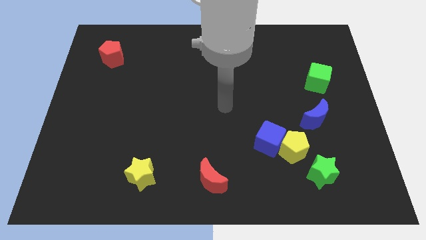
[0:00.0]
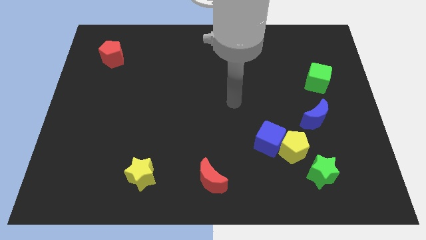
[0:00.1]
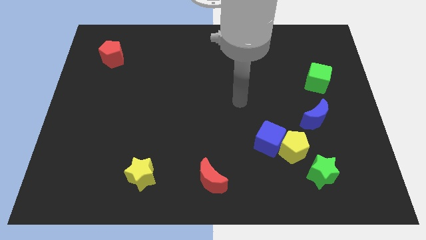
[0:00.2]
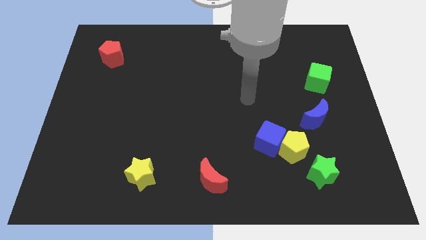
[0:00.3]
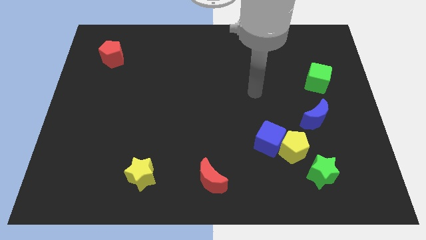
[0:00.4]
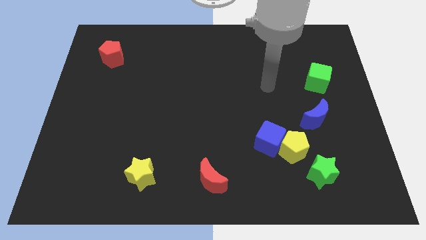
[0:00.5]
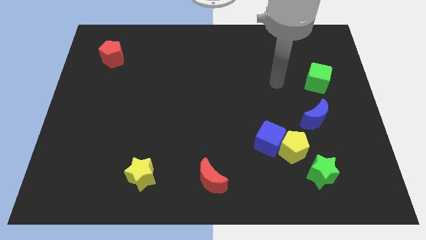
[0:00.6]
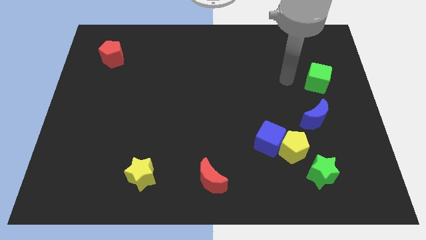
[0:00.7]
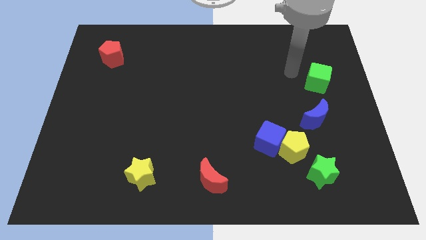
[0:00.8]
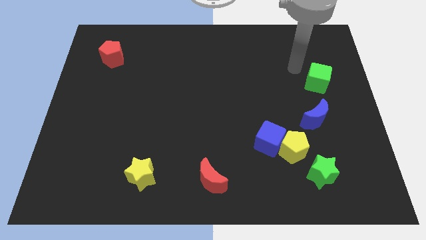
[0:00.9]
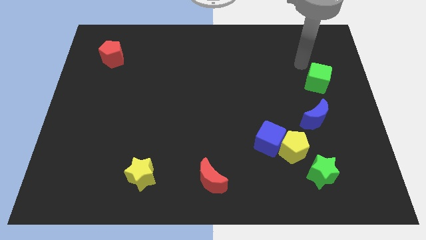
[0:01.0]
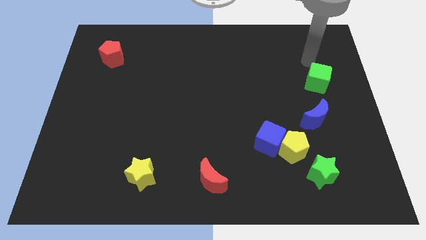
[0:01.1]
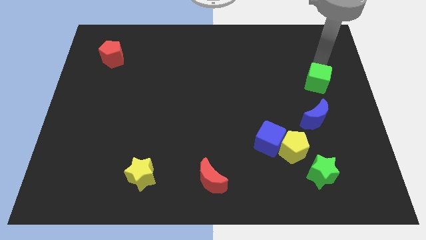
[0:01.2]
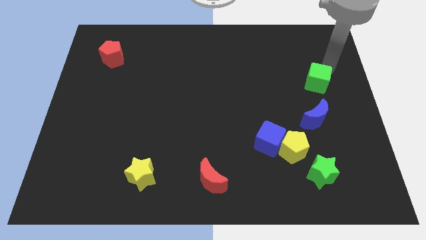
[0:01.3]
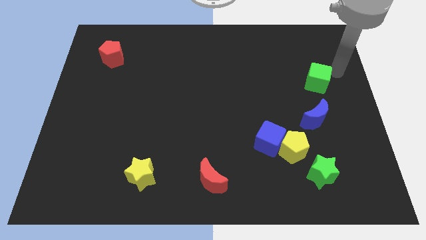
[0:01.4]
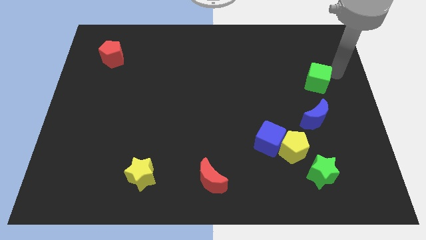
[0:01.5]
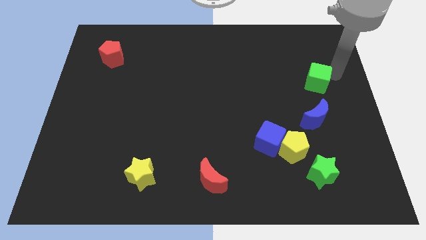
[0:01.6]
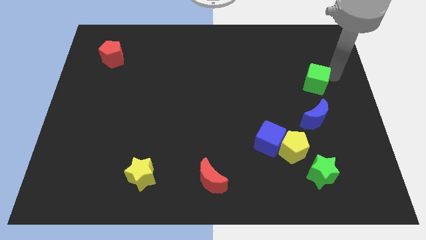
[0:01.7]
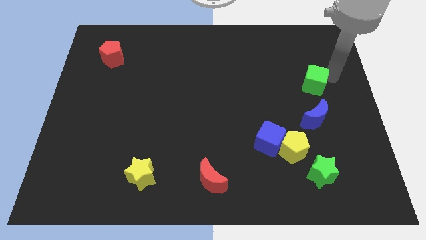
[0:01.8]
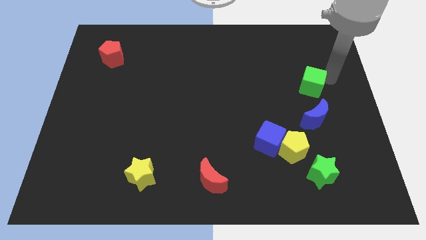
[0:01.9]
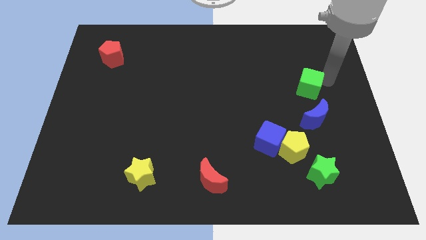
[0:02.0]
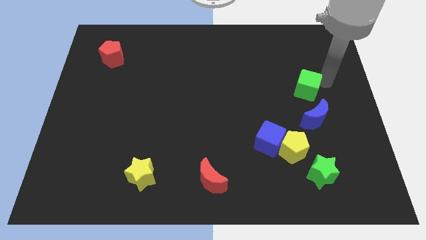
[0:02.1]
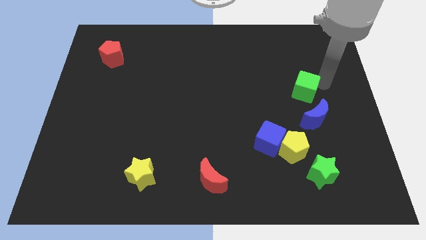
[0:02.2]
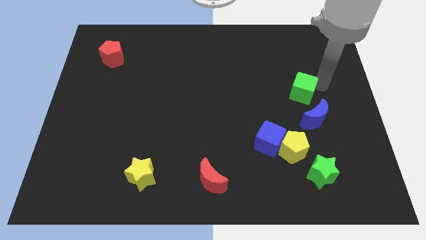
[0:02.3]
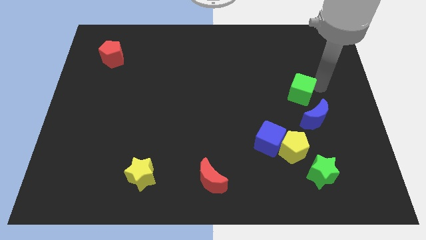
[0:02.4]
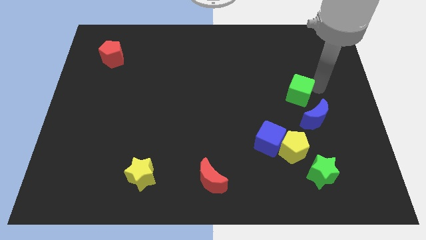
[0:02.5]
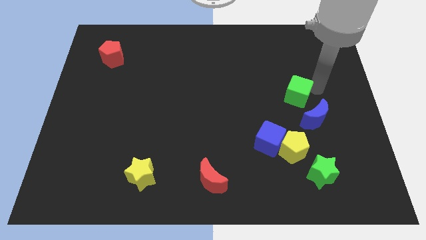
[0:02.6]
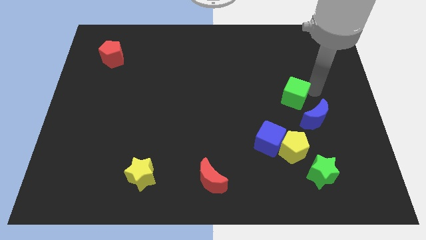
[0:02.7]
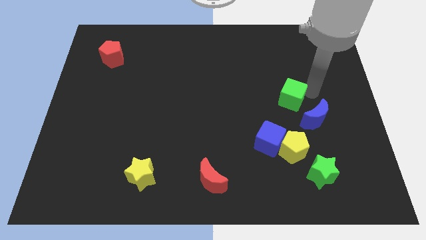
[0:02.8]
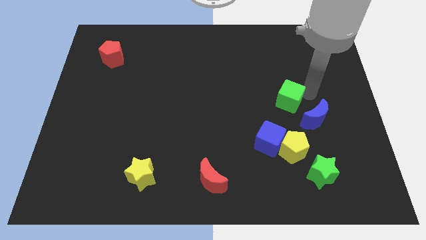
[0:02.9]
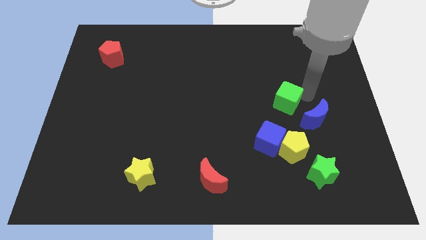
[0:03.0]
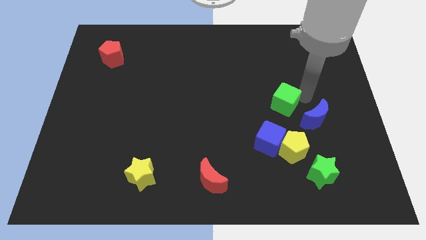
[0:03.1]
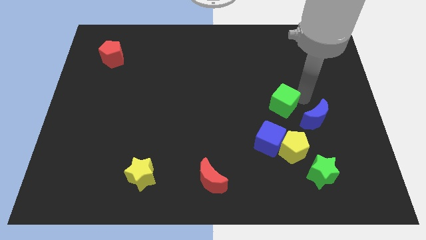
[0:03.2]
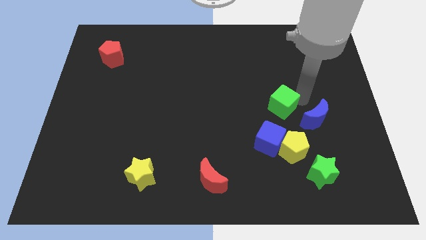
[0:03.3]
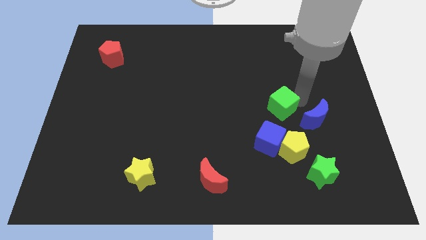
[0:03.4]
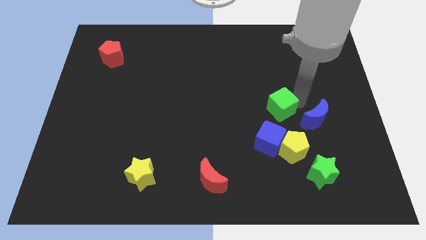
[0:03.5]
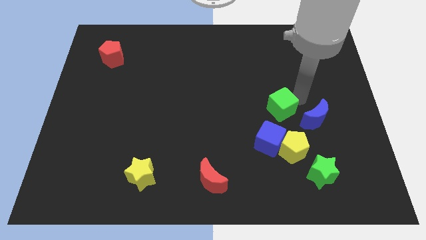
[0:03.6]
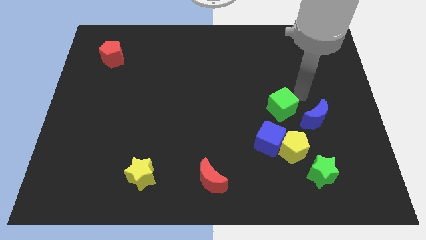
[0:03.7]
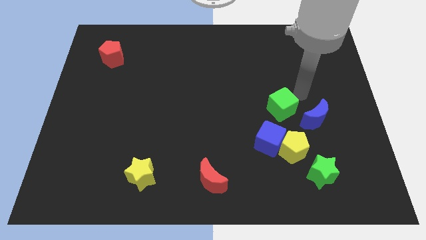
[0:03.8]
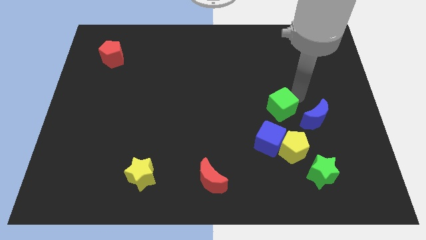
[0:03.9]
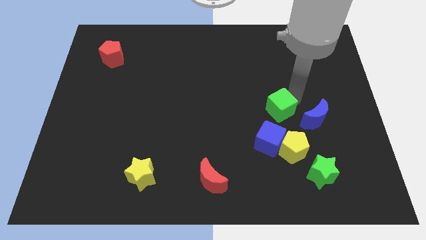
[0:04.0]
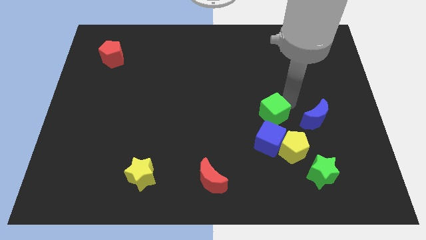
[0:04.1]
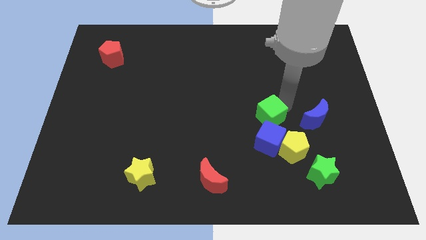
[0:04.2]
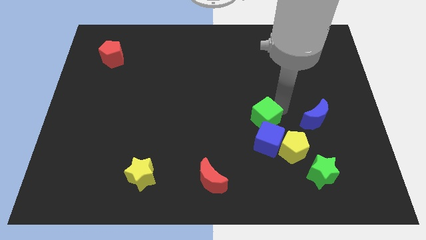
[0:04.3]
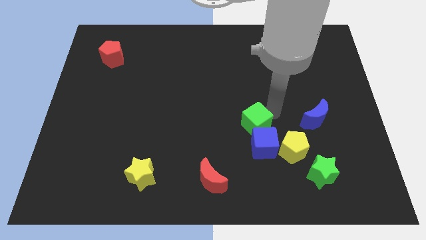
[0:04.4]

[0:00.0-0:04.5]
slide the green cube downwards and to the left

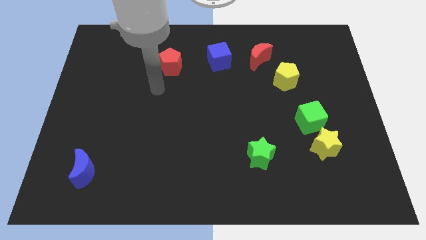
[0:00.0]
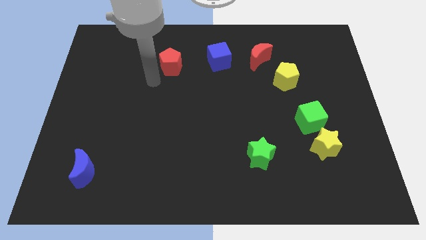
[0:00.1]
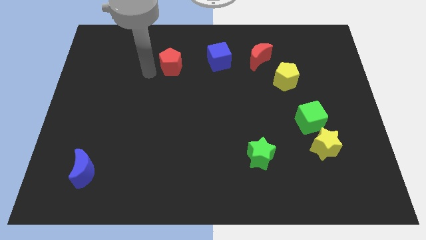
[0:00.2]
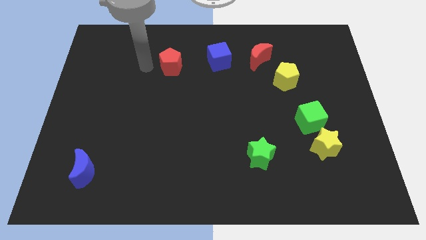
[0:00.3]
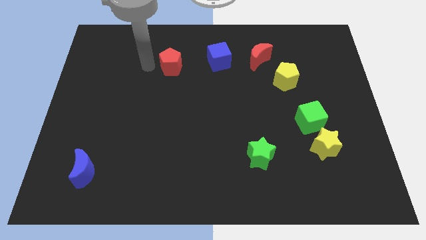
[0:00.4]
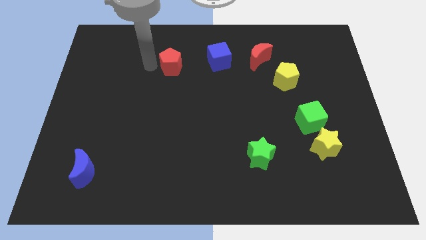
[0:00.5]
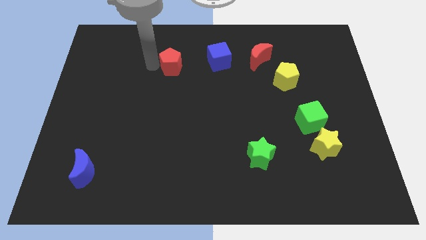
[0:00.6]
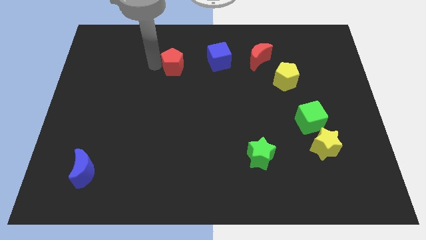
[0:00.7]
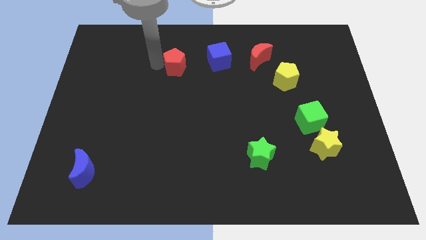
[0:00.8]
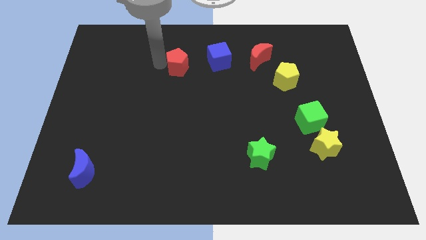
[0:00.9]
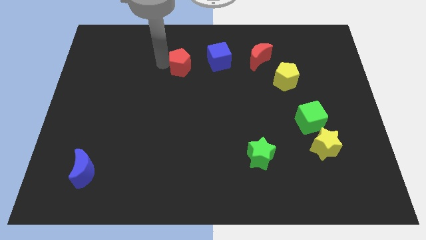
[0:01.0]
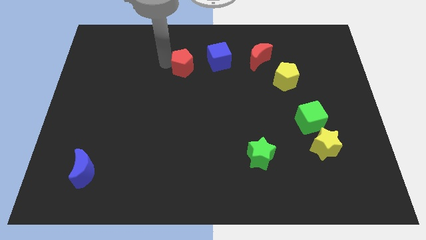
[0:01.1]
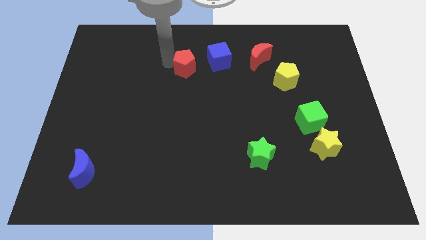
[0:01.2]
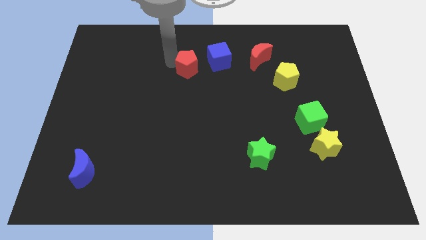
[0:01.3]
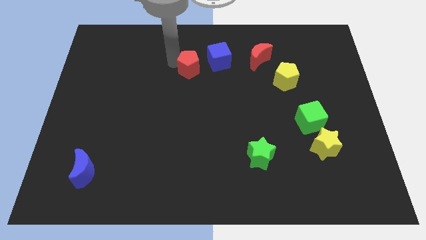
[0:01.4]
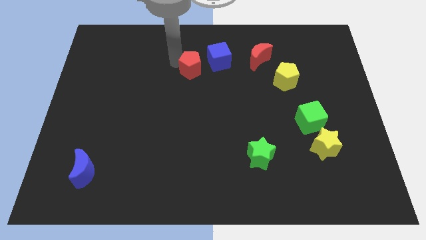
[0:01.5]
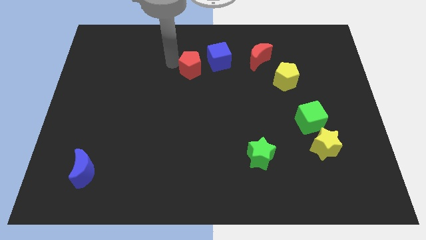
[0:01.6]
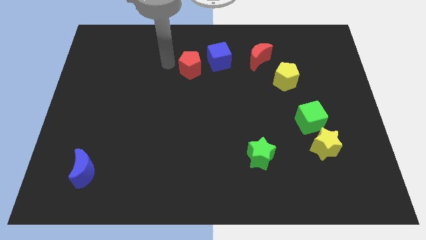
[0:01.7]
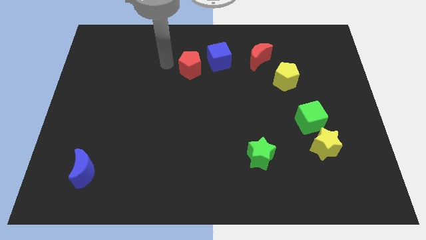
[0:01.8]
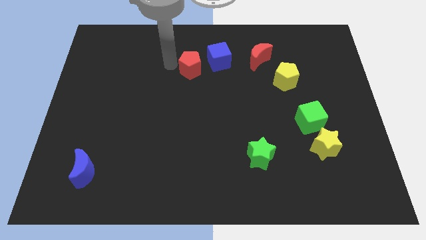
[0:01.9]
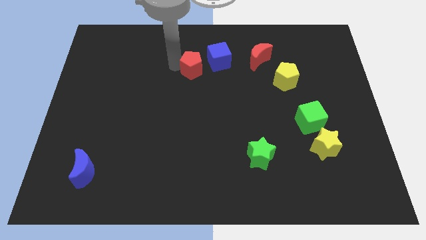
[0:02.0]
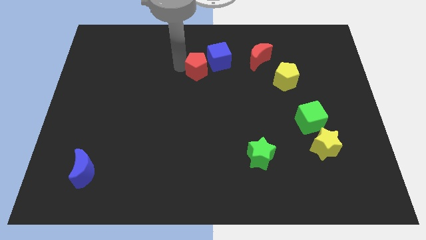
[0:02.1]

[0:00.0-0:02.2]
move the red pentagon slightly right

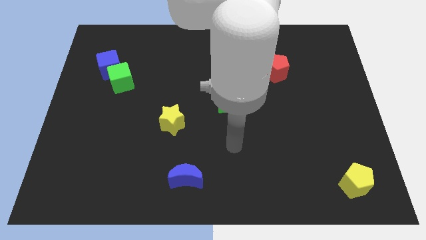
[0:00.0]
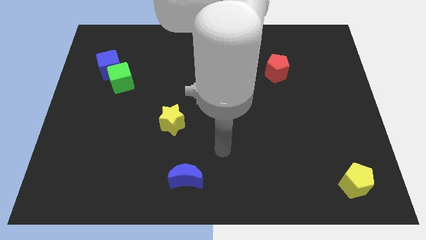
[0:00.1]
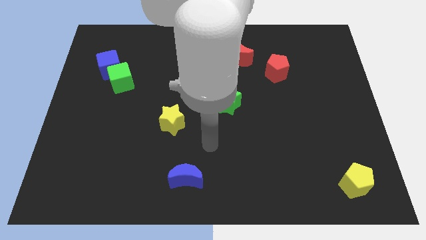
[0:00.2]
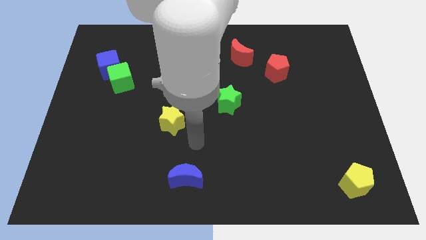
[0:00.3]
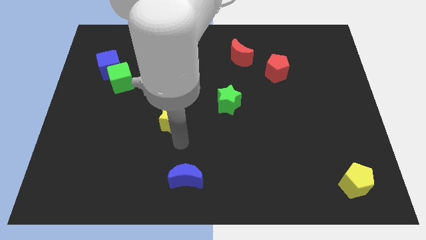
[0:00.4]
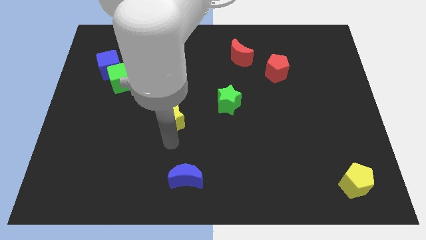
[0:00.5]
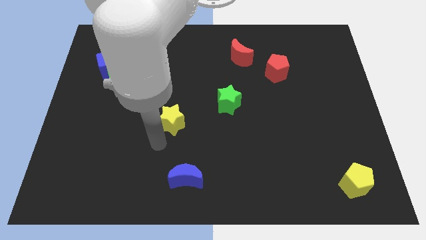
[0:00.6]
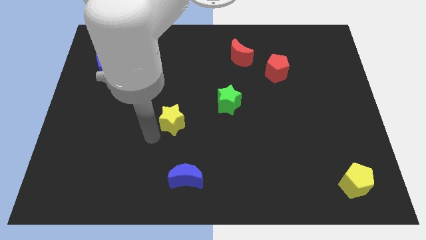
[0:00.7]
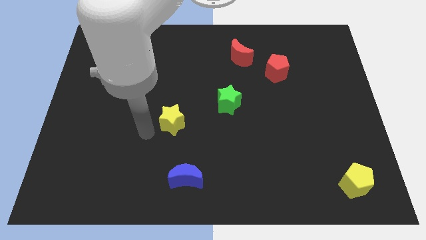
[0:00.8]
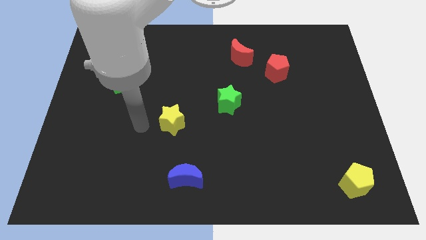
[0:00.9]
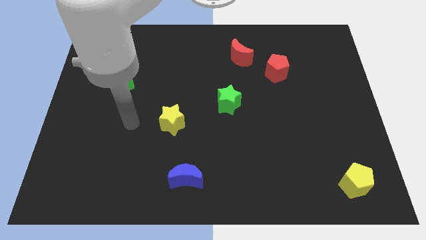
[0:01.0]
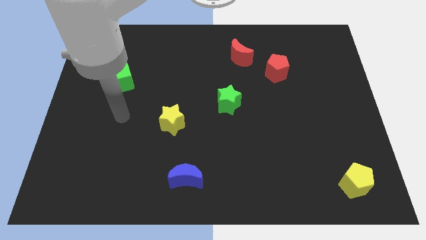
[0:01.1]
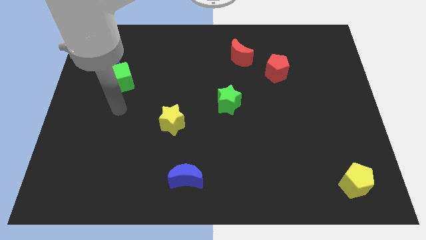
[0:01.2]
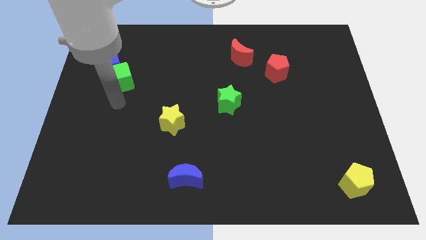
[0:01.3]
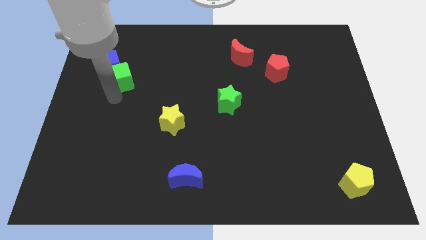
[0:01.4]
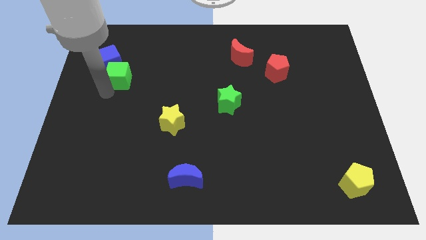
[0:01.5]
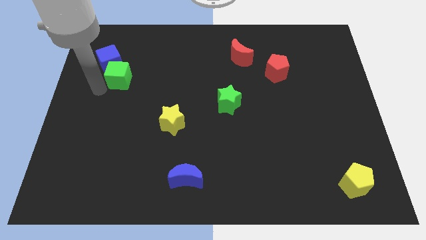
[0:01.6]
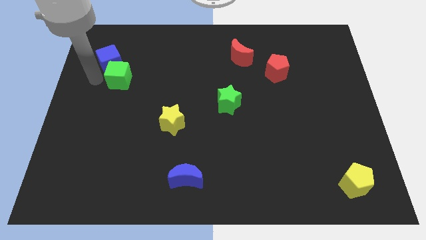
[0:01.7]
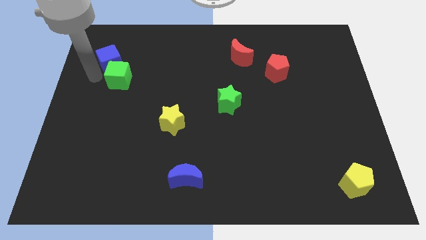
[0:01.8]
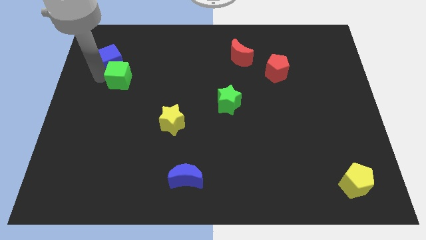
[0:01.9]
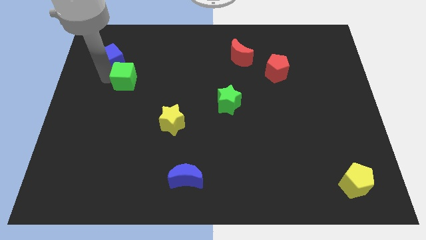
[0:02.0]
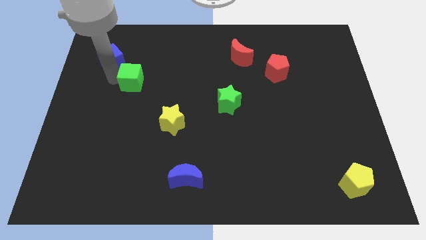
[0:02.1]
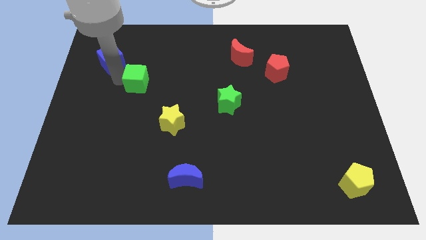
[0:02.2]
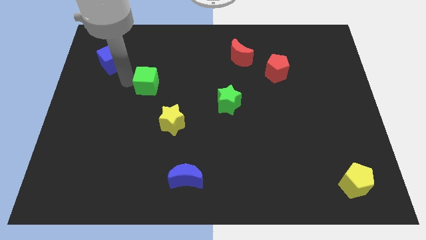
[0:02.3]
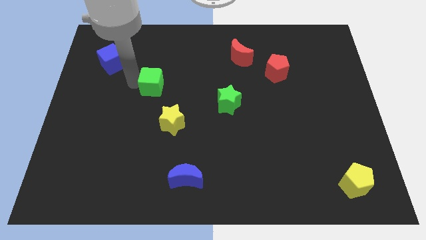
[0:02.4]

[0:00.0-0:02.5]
move the green cube to the right slightly
